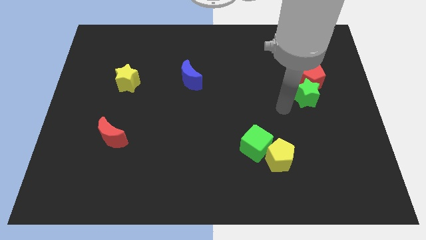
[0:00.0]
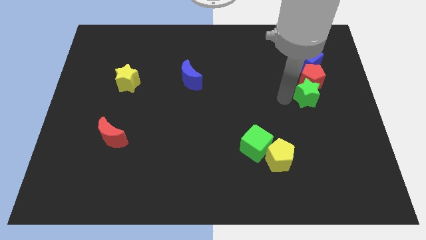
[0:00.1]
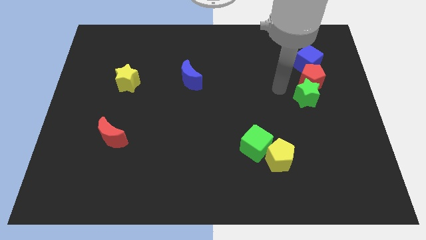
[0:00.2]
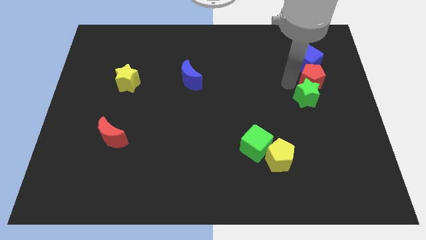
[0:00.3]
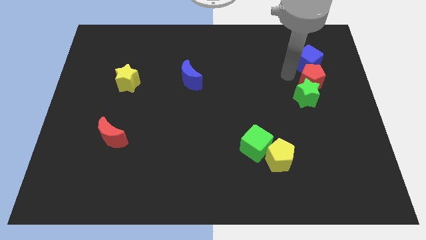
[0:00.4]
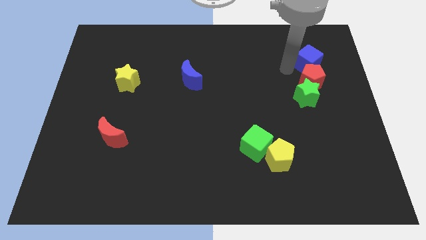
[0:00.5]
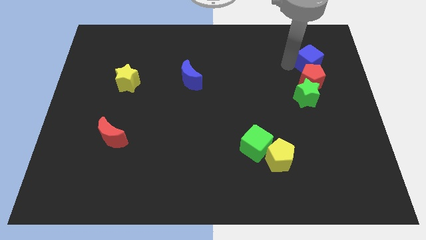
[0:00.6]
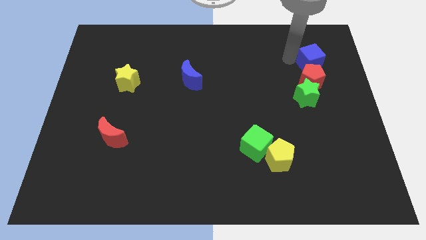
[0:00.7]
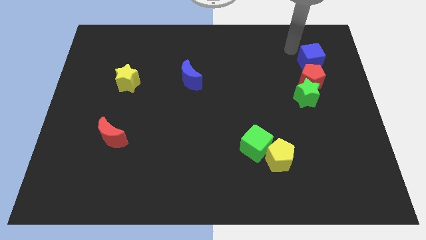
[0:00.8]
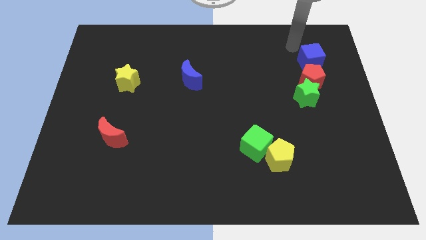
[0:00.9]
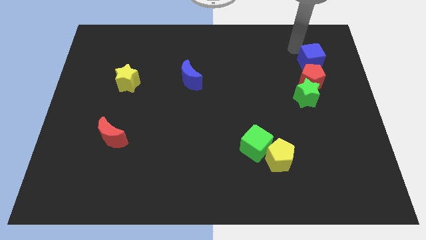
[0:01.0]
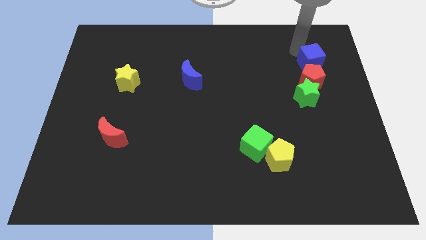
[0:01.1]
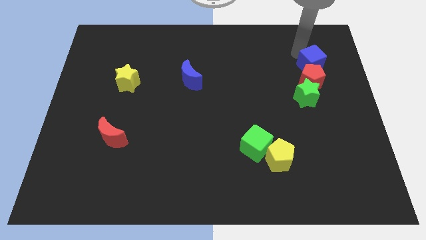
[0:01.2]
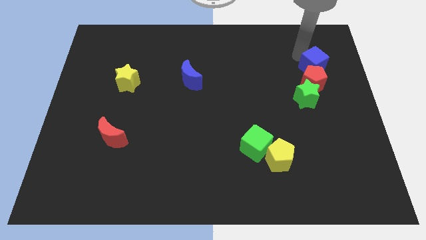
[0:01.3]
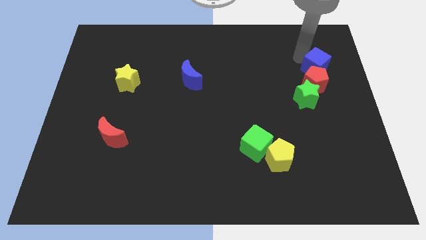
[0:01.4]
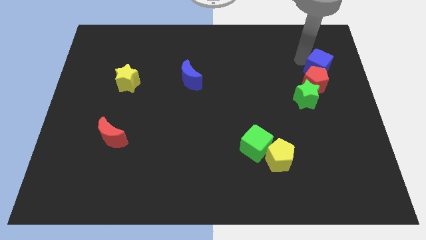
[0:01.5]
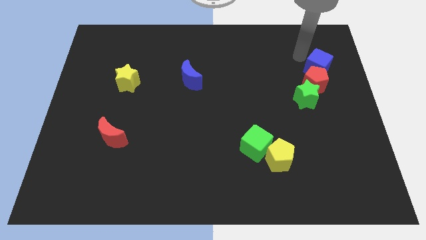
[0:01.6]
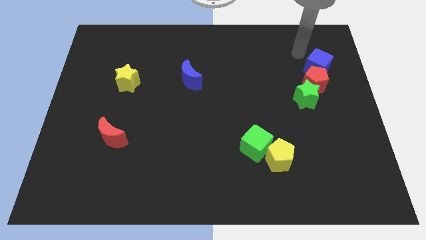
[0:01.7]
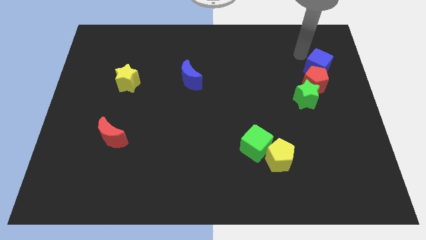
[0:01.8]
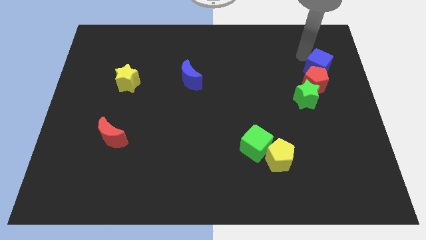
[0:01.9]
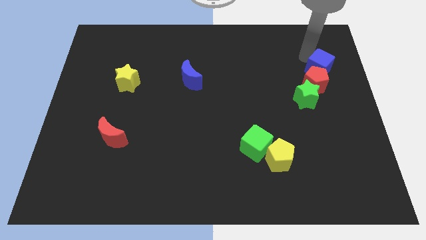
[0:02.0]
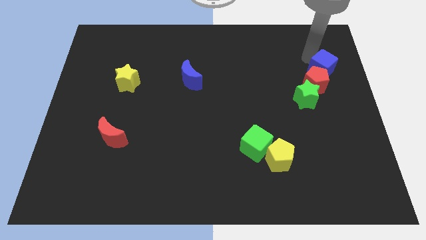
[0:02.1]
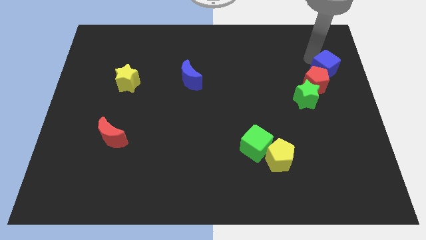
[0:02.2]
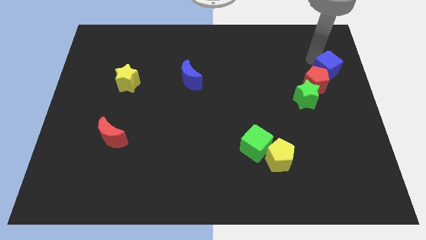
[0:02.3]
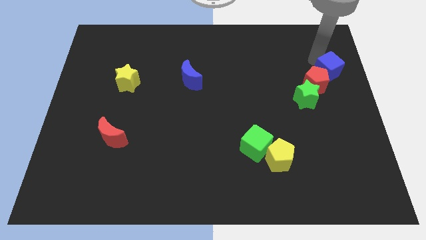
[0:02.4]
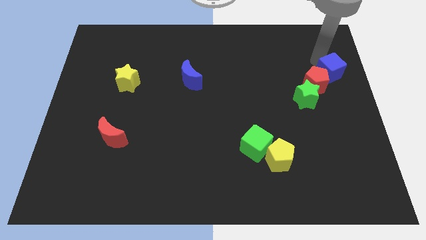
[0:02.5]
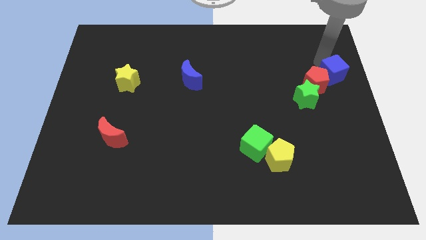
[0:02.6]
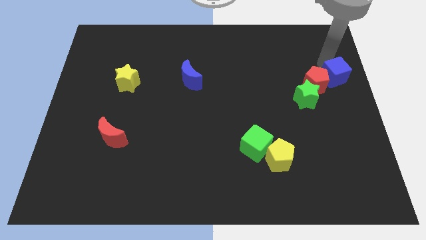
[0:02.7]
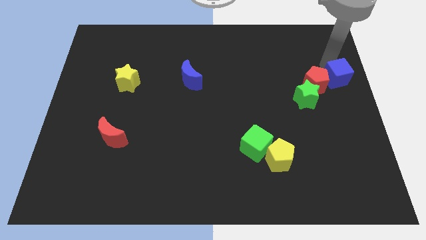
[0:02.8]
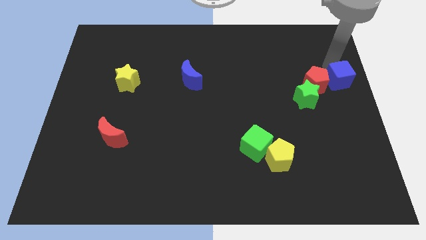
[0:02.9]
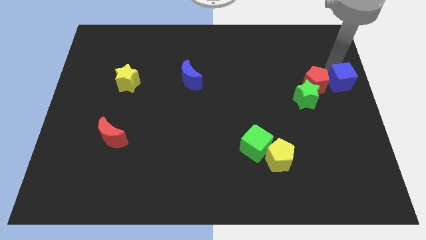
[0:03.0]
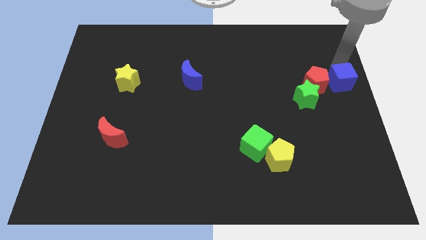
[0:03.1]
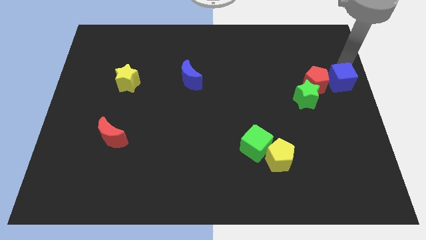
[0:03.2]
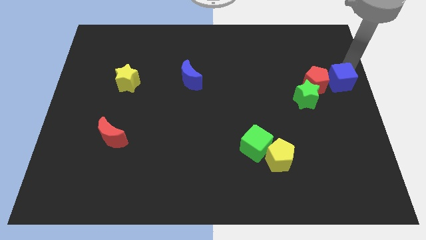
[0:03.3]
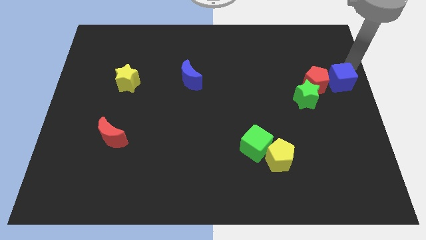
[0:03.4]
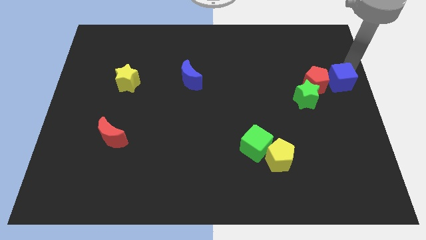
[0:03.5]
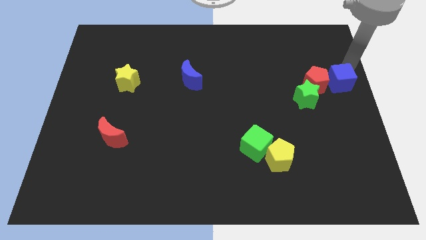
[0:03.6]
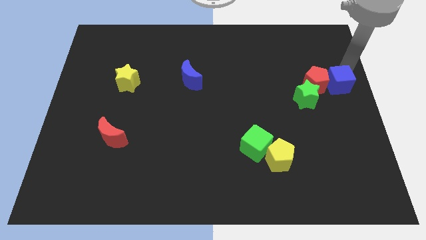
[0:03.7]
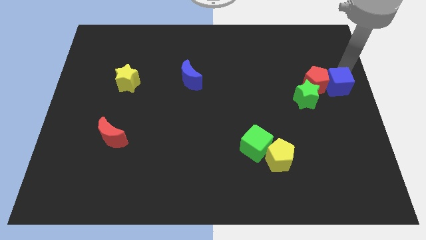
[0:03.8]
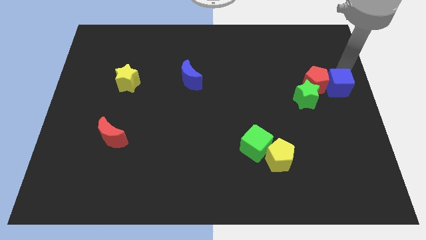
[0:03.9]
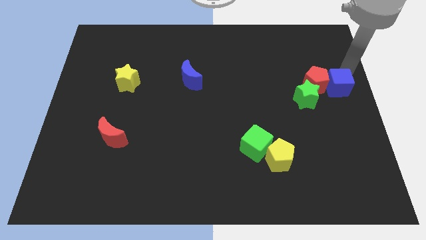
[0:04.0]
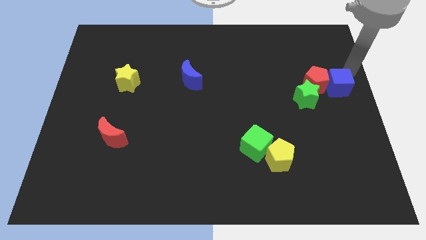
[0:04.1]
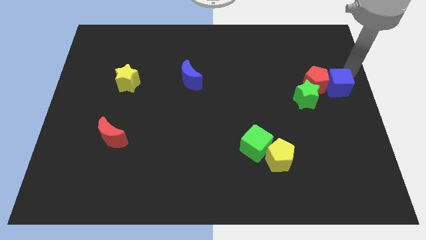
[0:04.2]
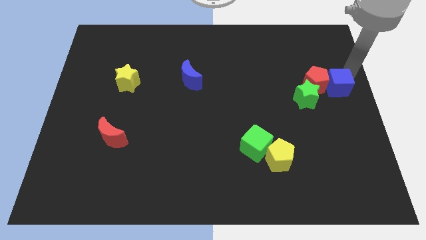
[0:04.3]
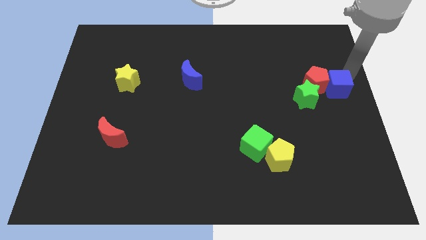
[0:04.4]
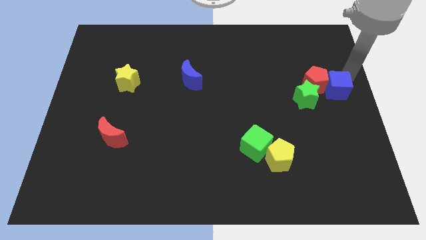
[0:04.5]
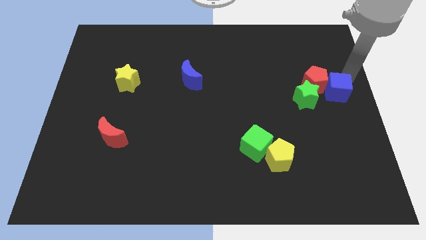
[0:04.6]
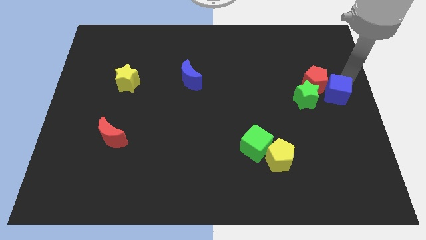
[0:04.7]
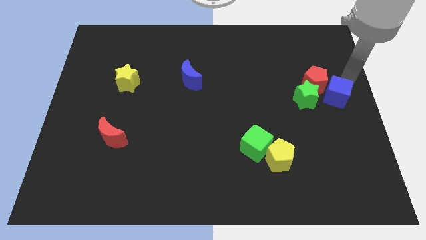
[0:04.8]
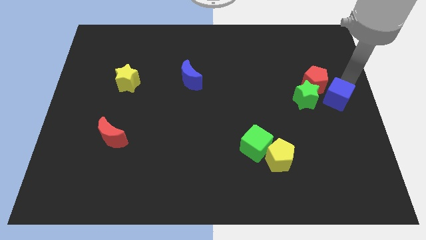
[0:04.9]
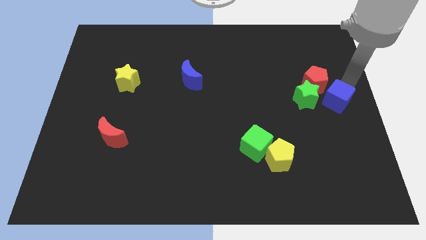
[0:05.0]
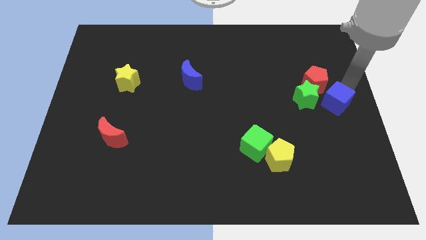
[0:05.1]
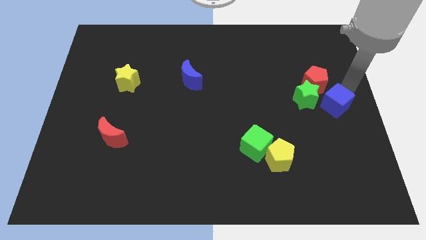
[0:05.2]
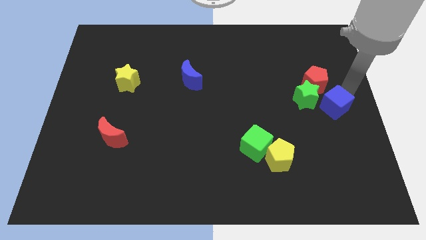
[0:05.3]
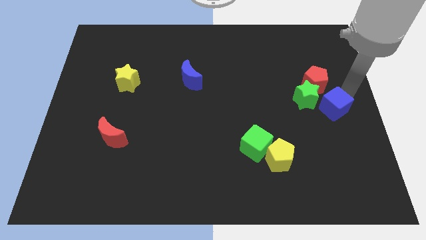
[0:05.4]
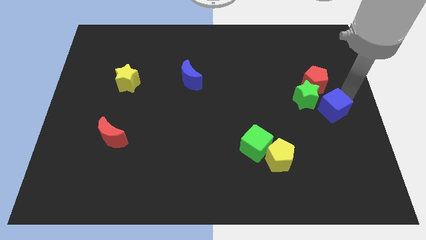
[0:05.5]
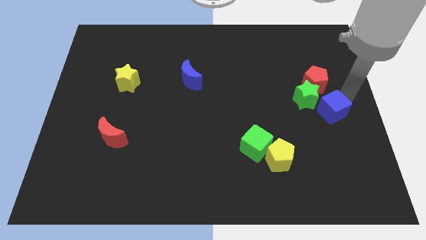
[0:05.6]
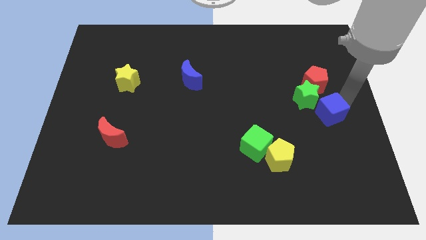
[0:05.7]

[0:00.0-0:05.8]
slide the blue cube below the green star

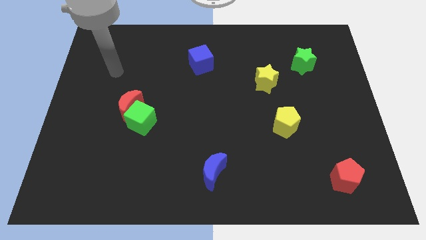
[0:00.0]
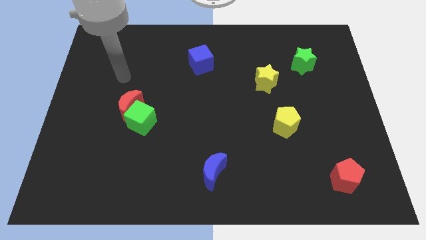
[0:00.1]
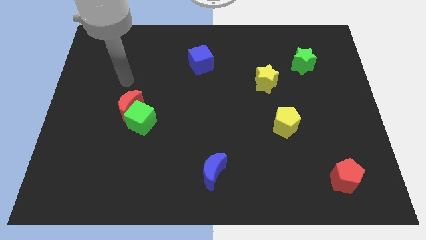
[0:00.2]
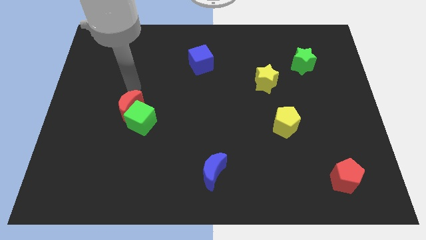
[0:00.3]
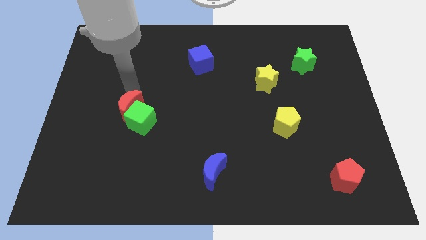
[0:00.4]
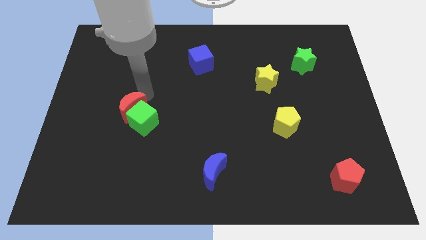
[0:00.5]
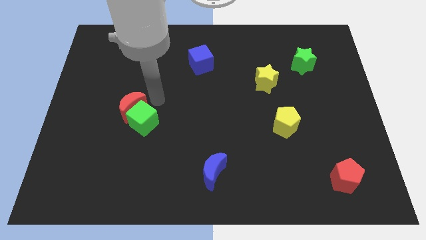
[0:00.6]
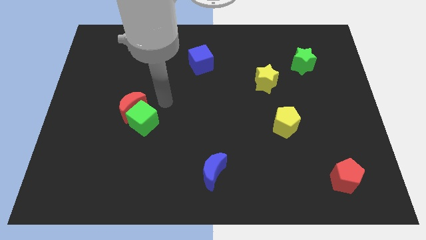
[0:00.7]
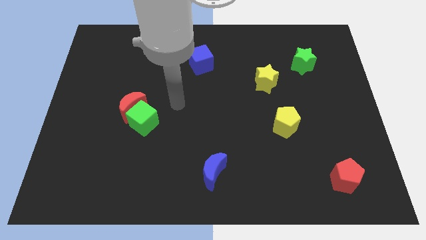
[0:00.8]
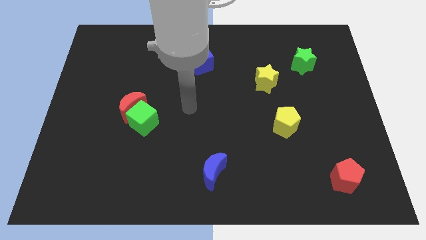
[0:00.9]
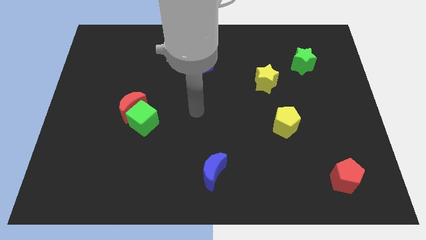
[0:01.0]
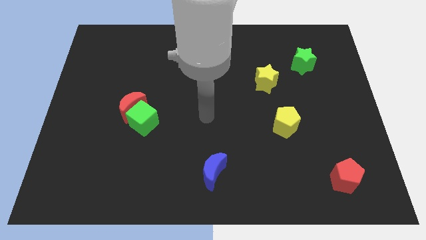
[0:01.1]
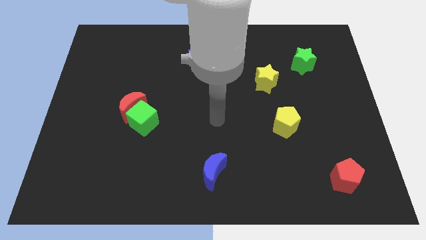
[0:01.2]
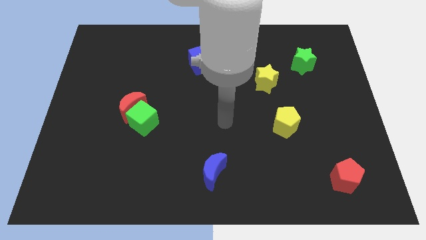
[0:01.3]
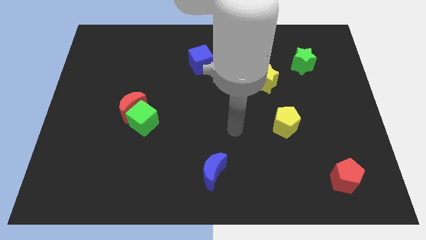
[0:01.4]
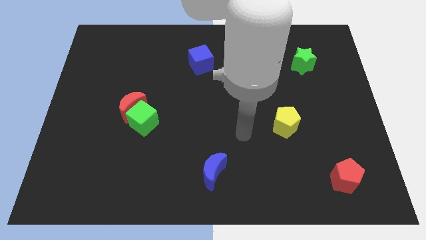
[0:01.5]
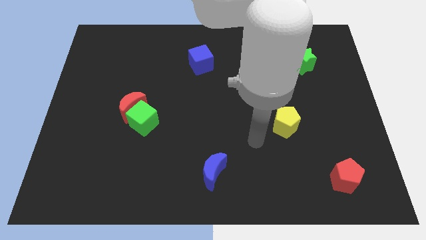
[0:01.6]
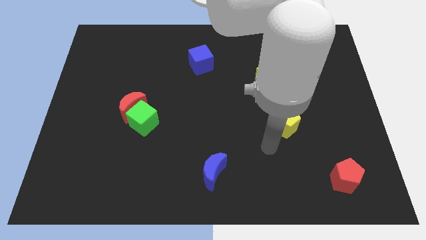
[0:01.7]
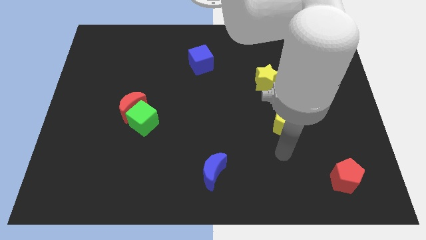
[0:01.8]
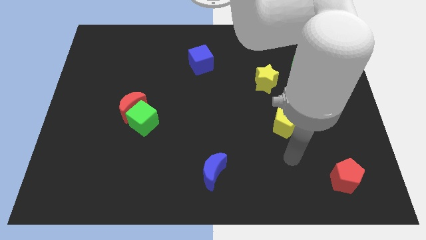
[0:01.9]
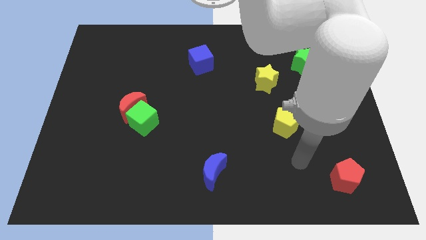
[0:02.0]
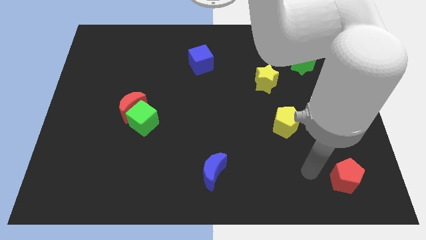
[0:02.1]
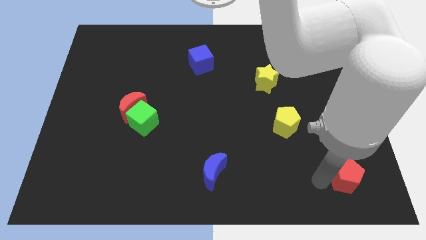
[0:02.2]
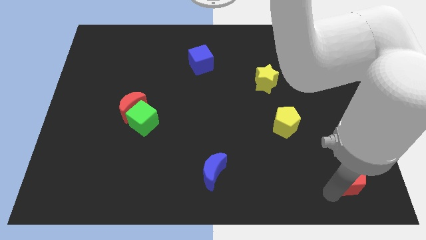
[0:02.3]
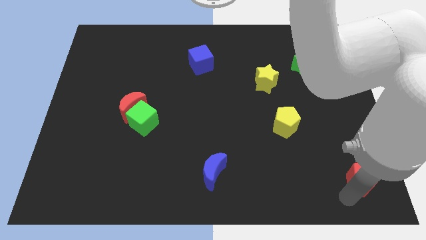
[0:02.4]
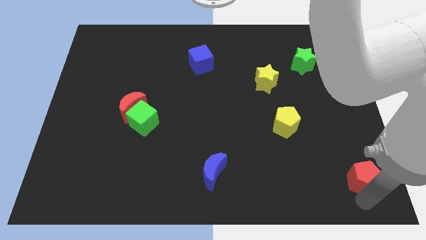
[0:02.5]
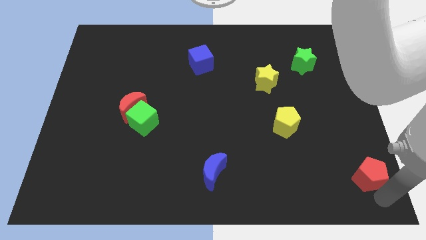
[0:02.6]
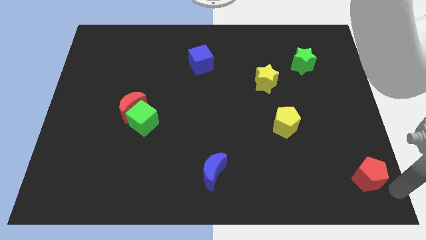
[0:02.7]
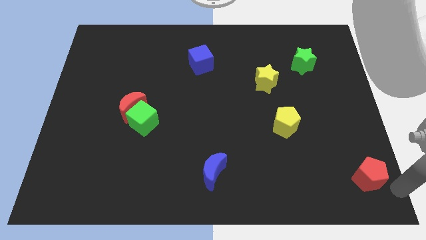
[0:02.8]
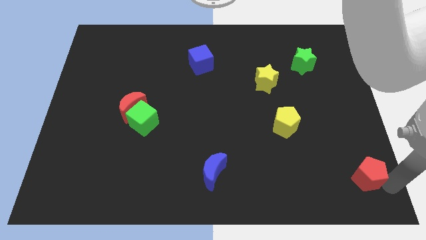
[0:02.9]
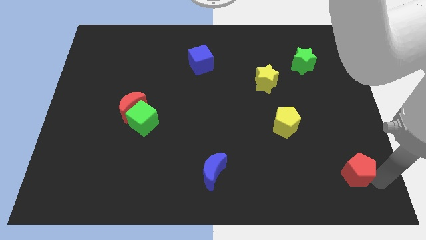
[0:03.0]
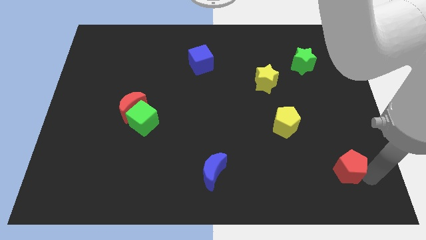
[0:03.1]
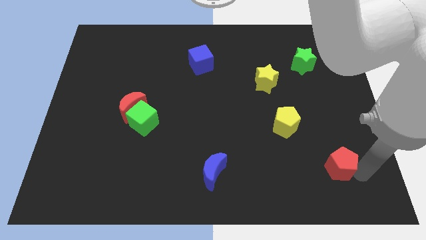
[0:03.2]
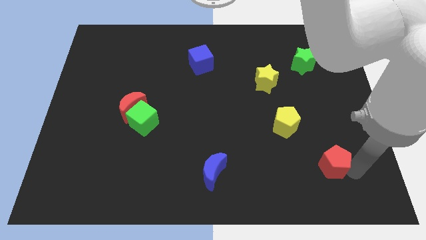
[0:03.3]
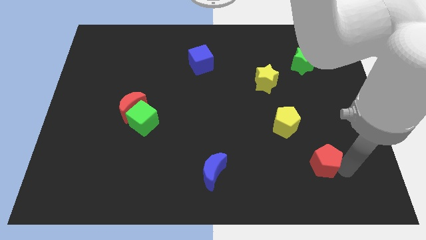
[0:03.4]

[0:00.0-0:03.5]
put the red pentagon to the bottom right side of the yellow pentagon
